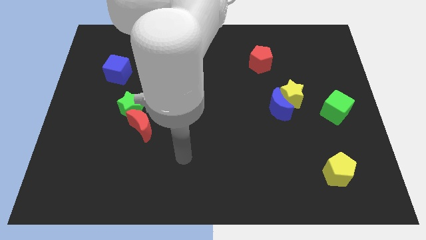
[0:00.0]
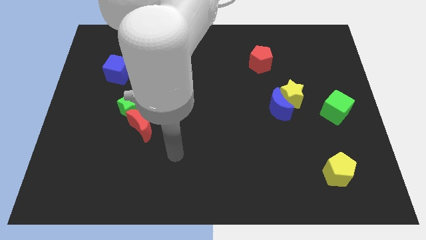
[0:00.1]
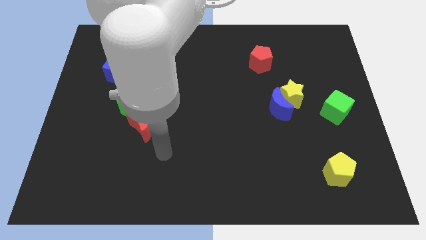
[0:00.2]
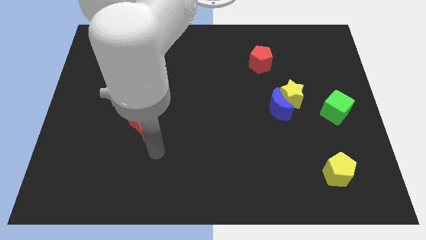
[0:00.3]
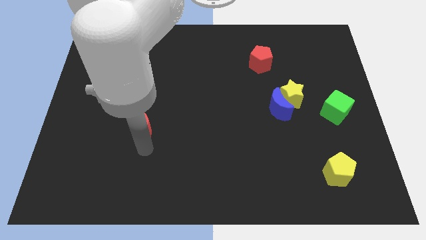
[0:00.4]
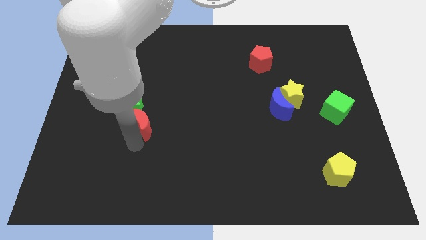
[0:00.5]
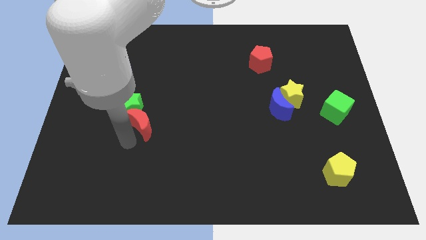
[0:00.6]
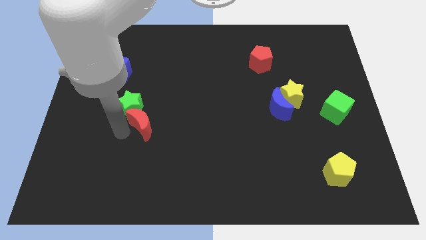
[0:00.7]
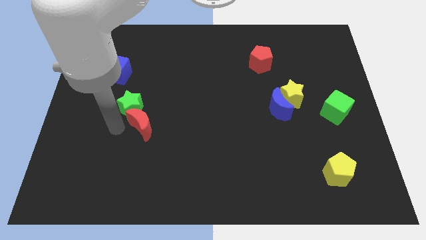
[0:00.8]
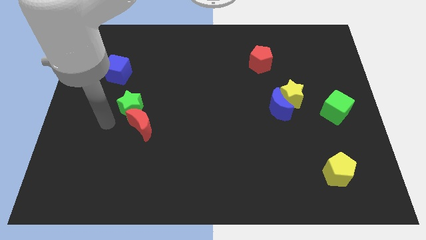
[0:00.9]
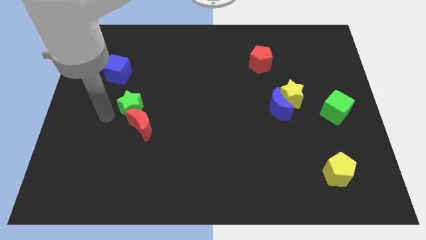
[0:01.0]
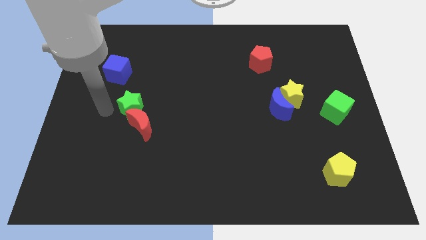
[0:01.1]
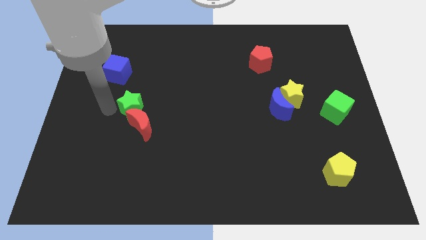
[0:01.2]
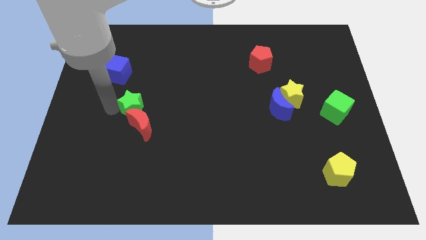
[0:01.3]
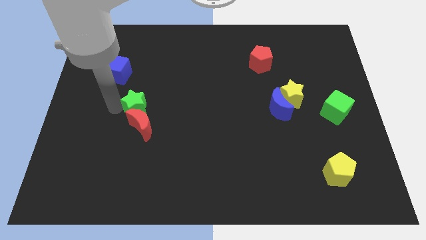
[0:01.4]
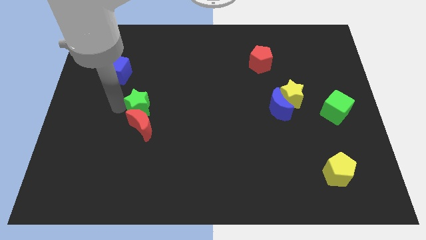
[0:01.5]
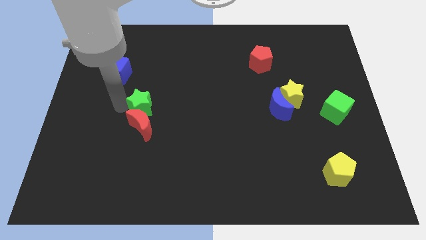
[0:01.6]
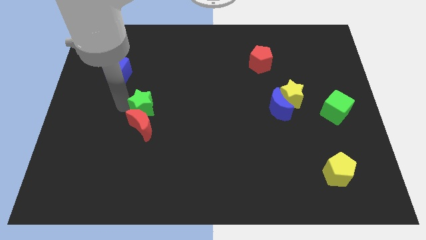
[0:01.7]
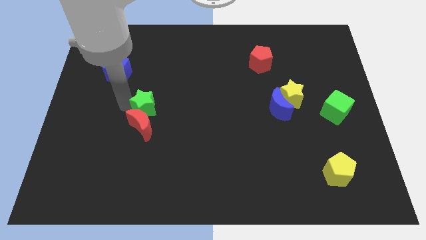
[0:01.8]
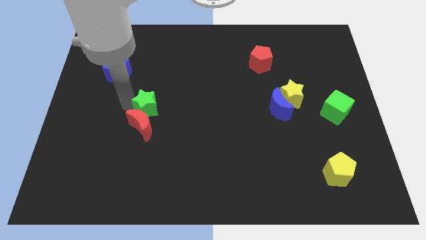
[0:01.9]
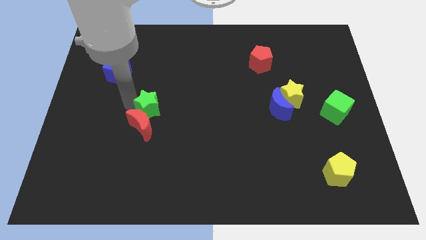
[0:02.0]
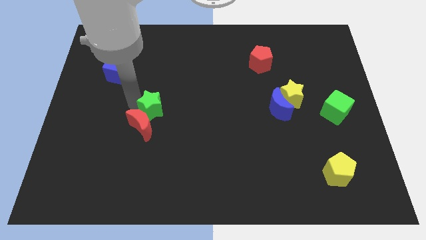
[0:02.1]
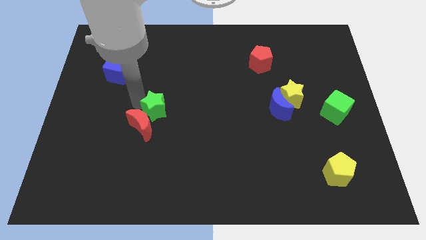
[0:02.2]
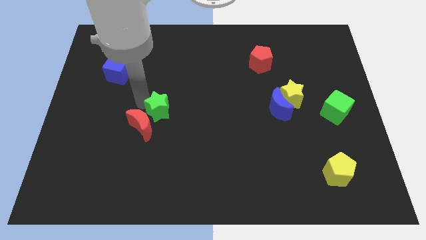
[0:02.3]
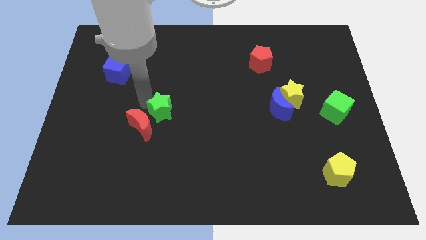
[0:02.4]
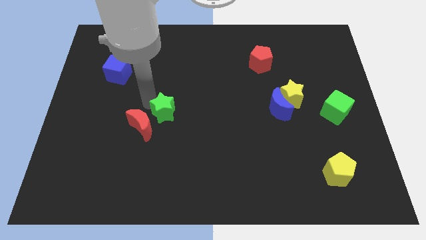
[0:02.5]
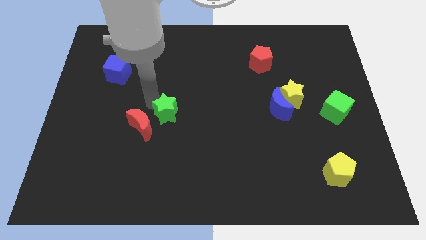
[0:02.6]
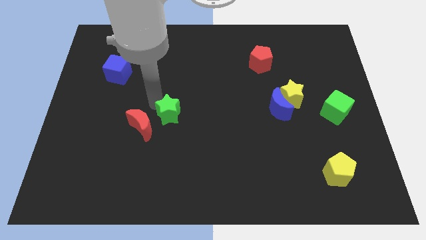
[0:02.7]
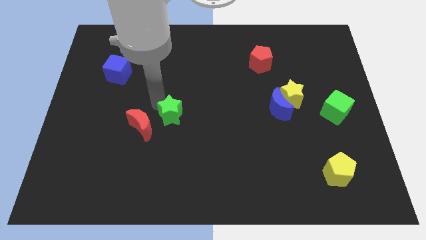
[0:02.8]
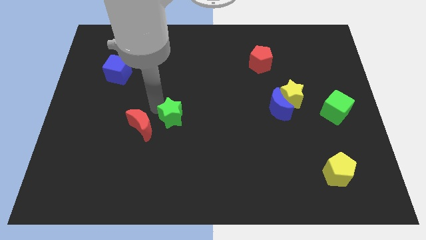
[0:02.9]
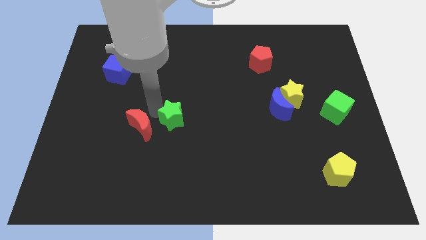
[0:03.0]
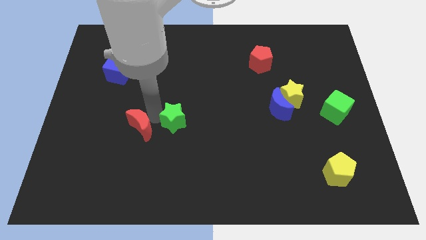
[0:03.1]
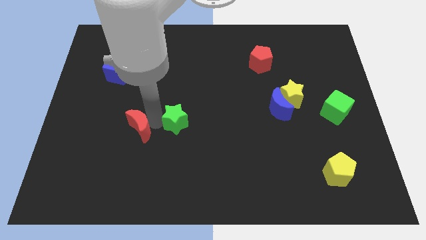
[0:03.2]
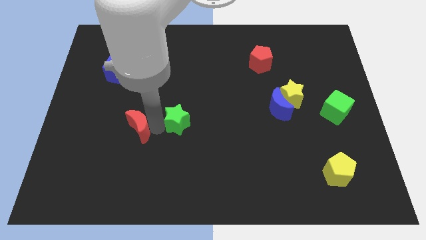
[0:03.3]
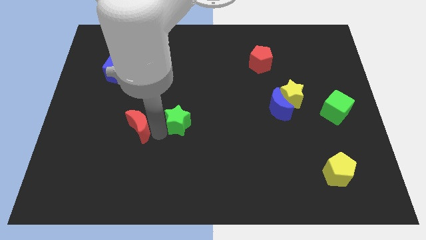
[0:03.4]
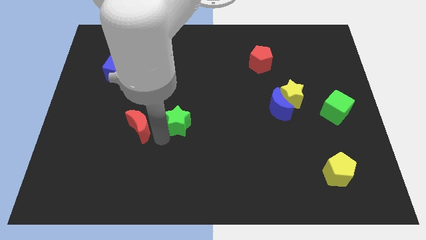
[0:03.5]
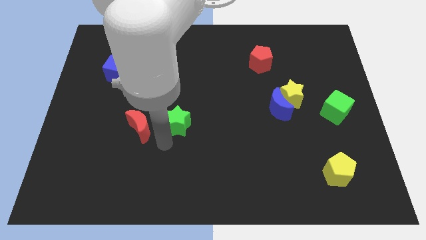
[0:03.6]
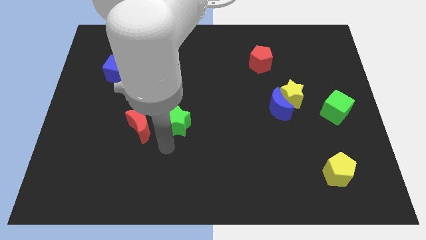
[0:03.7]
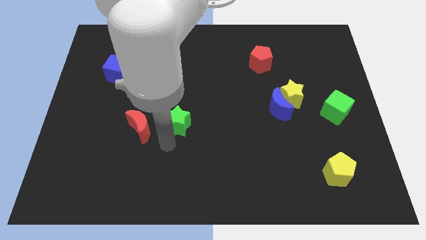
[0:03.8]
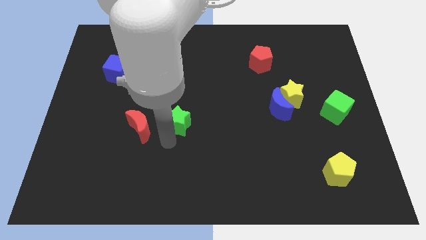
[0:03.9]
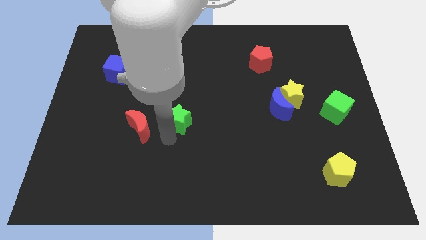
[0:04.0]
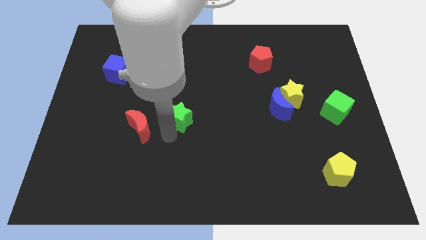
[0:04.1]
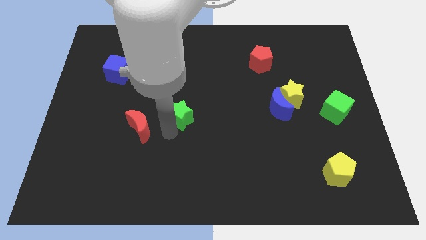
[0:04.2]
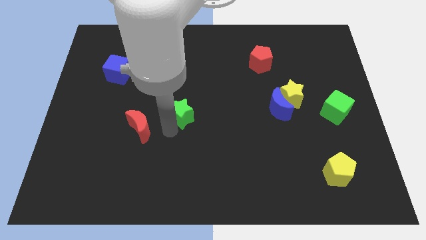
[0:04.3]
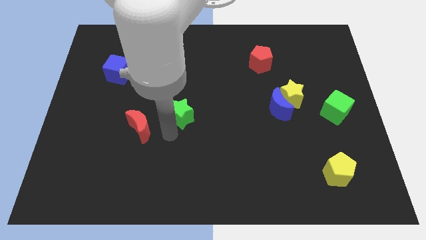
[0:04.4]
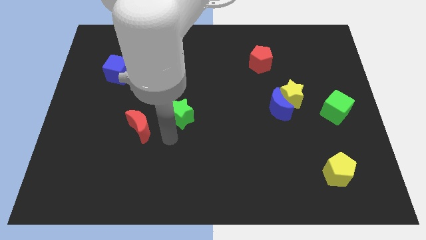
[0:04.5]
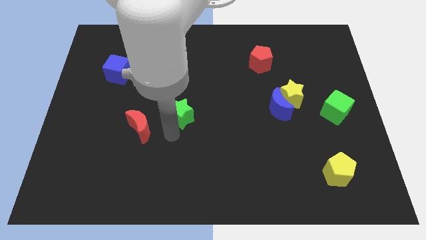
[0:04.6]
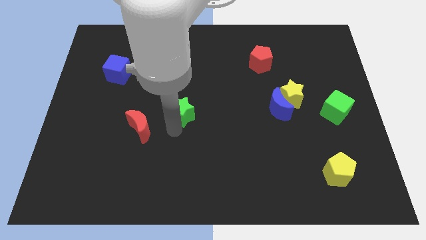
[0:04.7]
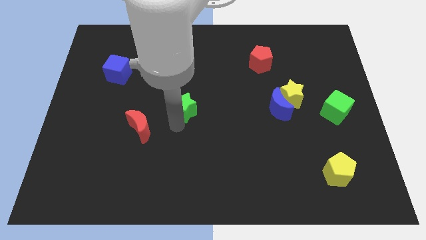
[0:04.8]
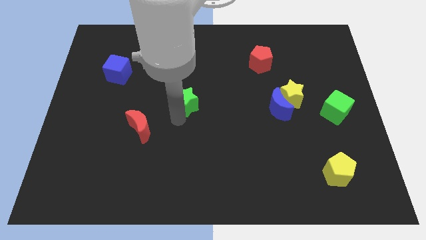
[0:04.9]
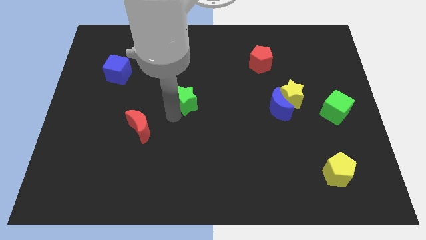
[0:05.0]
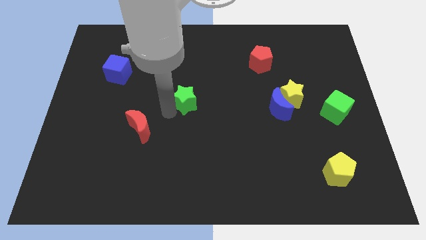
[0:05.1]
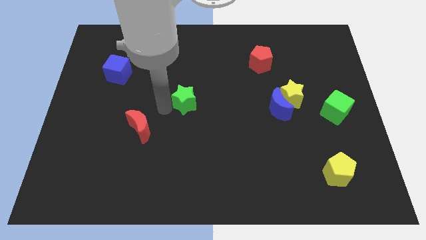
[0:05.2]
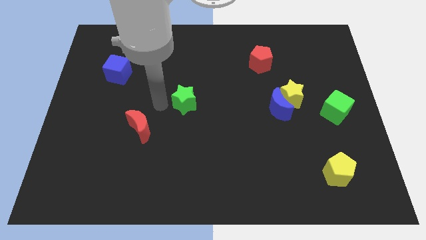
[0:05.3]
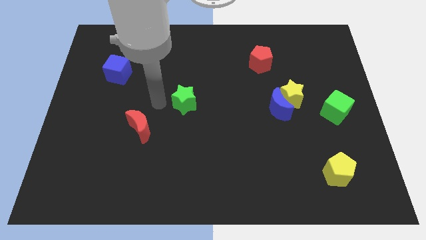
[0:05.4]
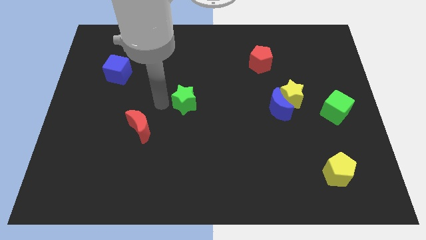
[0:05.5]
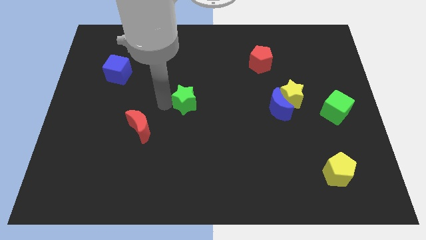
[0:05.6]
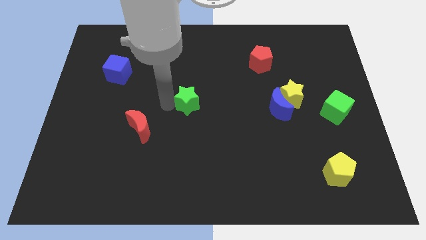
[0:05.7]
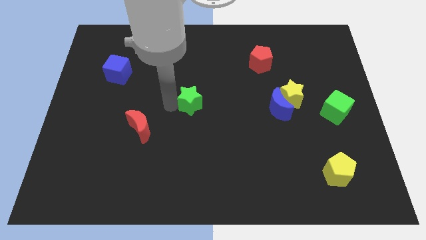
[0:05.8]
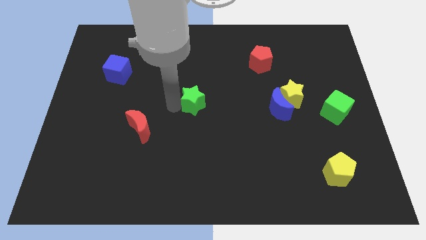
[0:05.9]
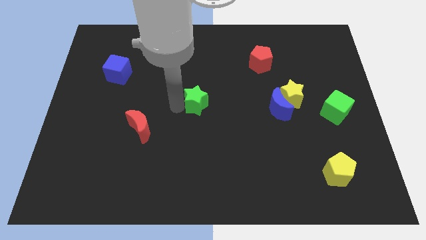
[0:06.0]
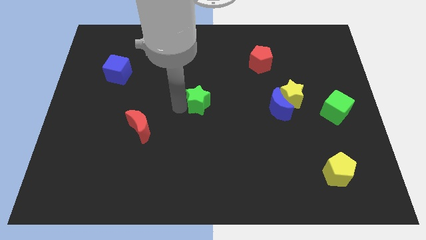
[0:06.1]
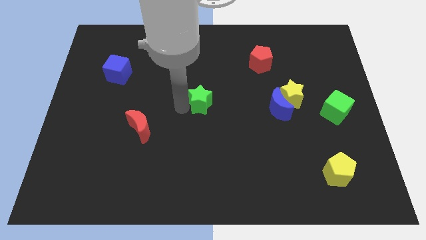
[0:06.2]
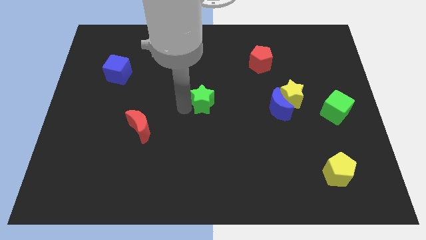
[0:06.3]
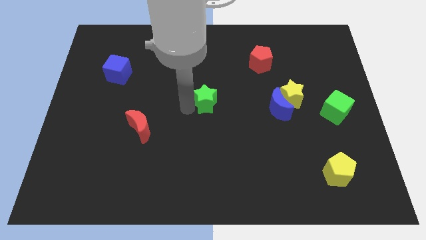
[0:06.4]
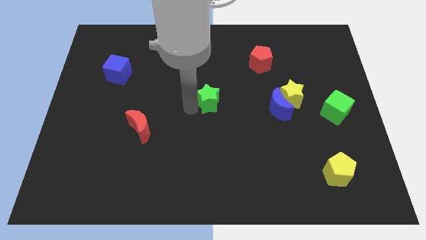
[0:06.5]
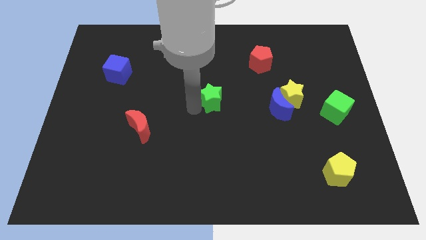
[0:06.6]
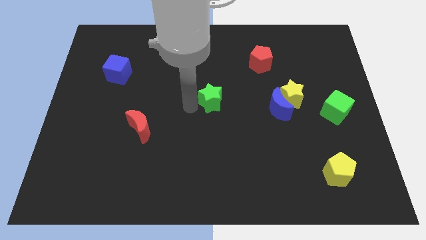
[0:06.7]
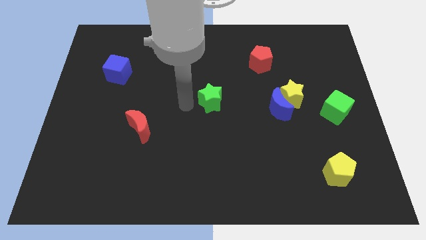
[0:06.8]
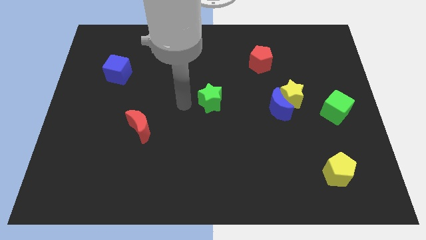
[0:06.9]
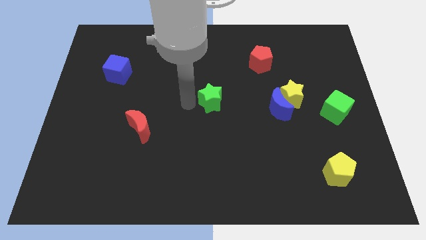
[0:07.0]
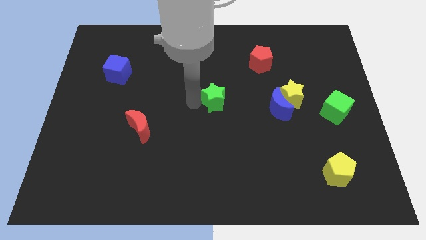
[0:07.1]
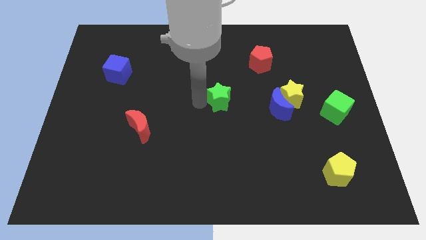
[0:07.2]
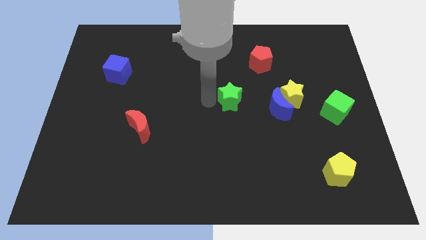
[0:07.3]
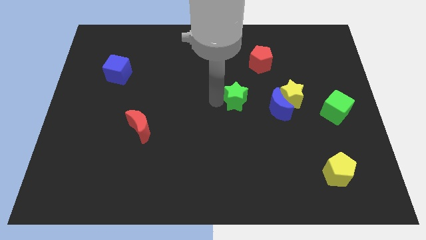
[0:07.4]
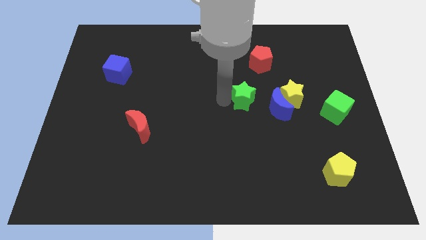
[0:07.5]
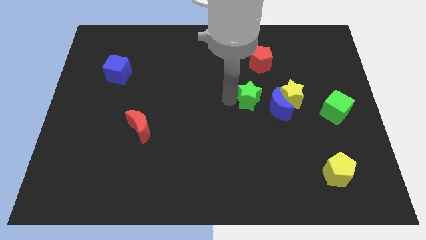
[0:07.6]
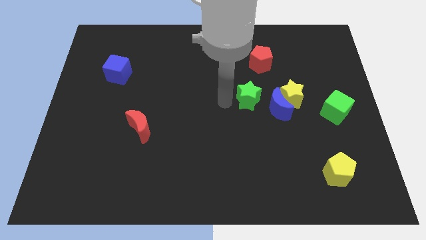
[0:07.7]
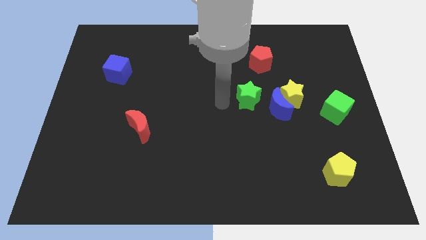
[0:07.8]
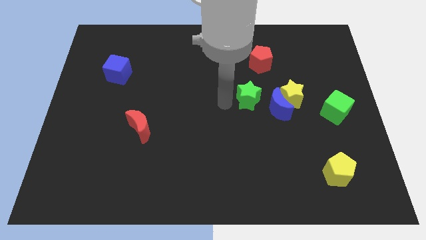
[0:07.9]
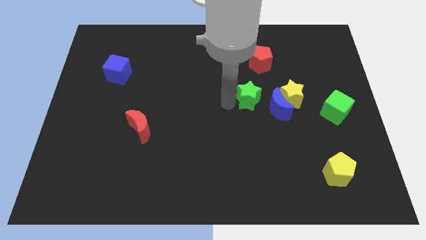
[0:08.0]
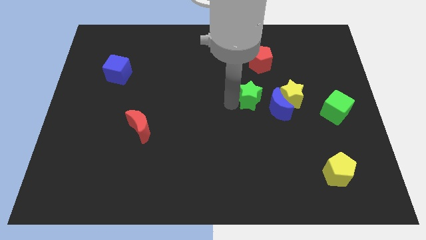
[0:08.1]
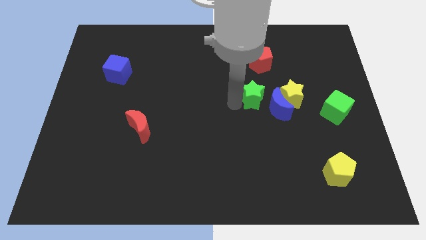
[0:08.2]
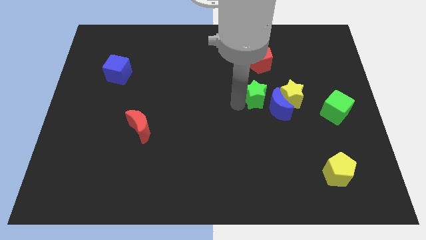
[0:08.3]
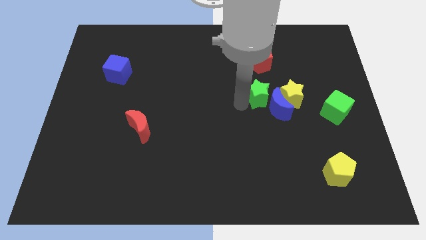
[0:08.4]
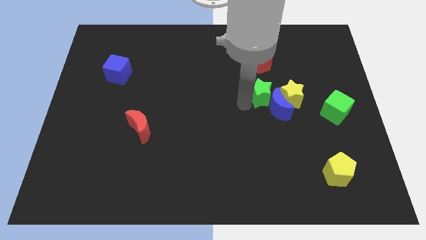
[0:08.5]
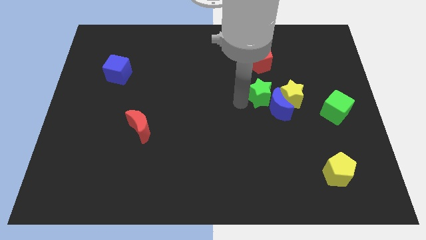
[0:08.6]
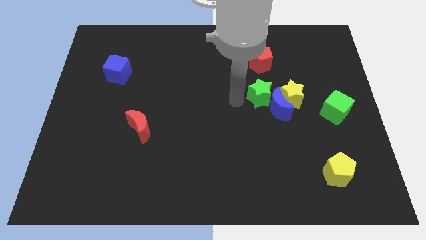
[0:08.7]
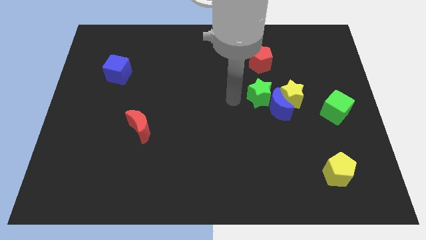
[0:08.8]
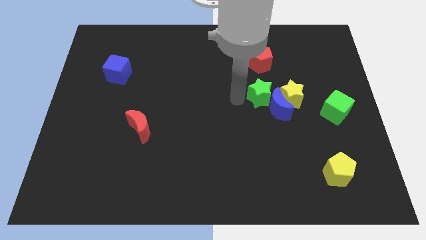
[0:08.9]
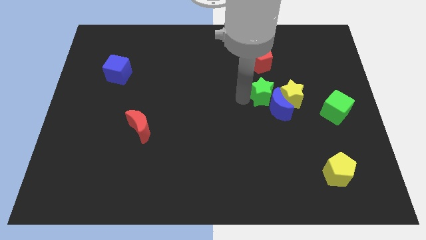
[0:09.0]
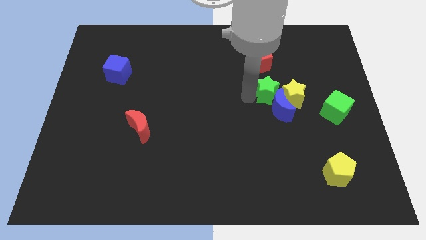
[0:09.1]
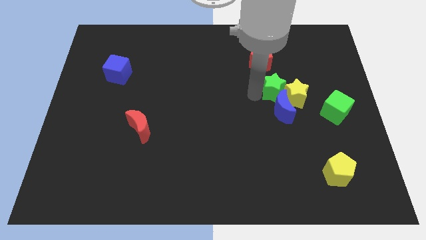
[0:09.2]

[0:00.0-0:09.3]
move the green star towards the yellow star
